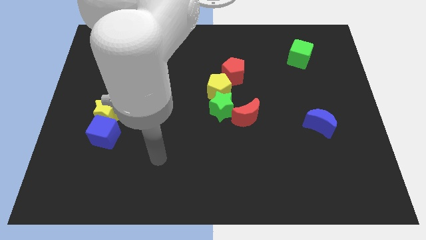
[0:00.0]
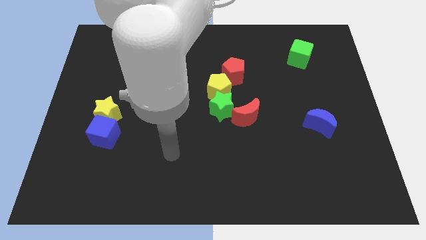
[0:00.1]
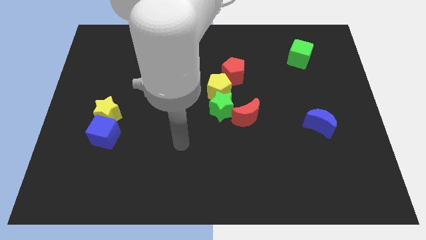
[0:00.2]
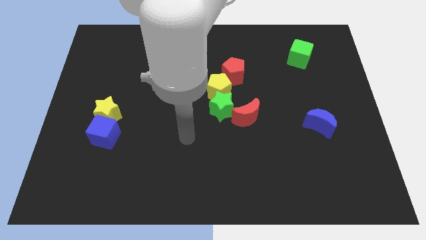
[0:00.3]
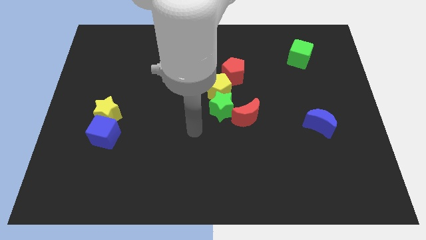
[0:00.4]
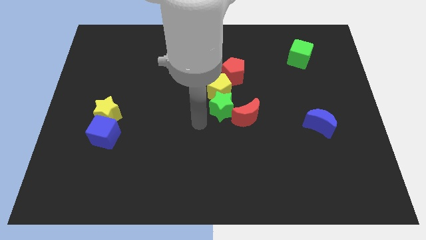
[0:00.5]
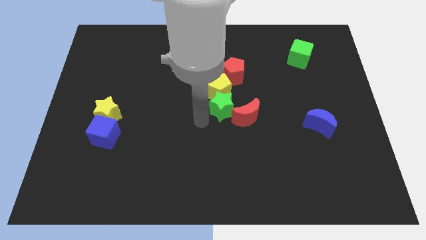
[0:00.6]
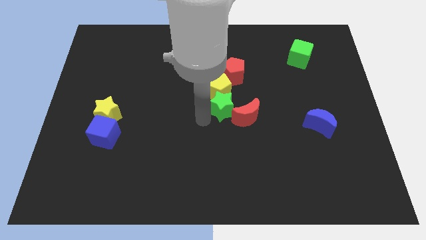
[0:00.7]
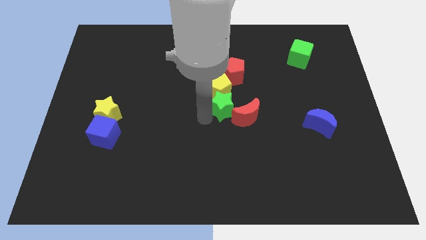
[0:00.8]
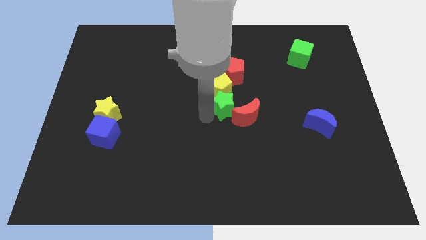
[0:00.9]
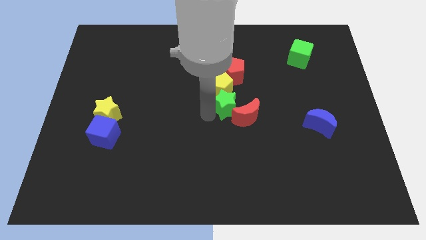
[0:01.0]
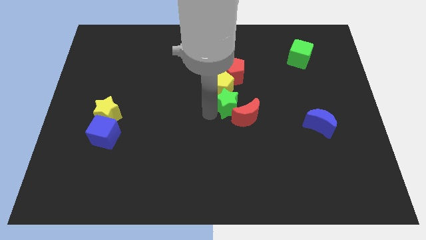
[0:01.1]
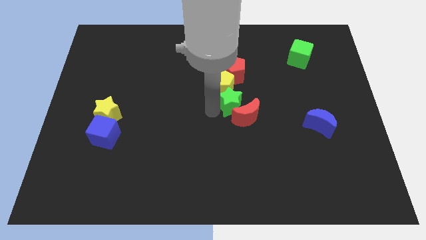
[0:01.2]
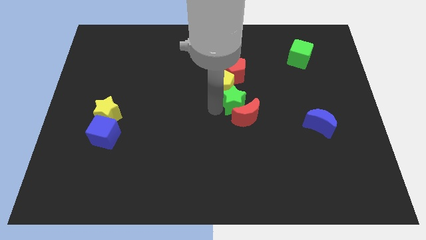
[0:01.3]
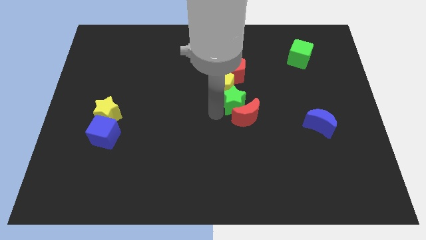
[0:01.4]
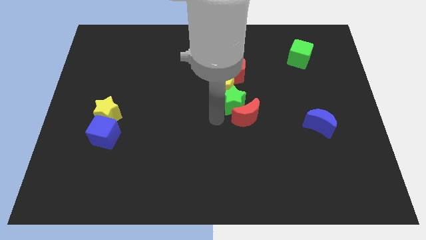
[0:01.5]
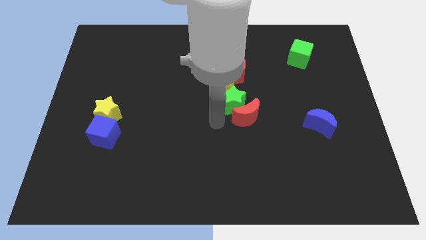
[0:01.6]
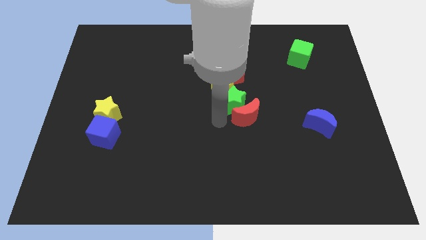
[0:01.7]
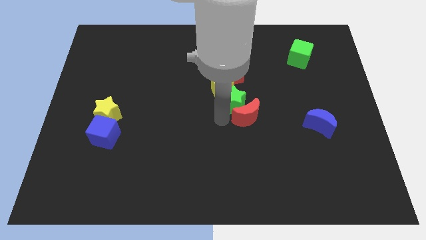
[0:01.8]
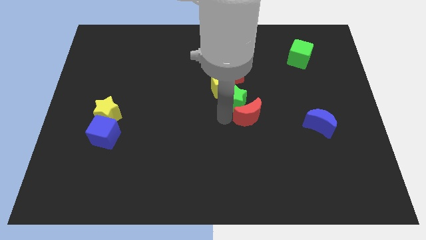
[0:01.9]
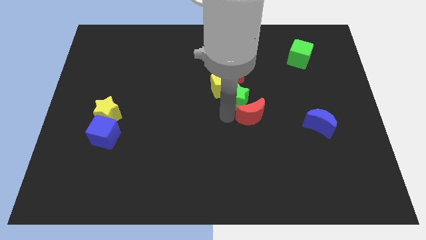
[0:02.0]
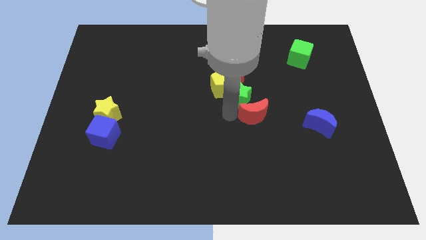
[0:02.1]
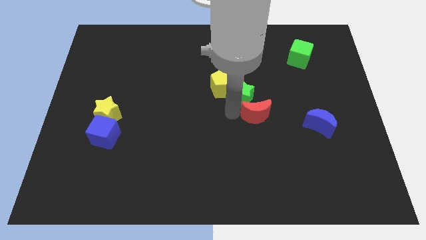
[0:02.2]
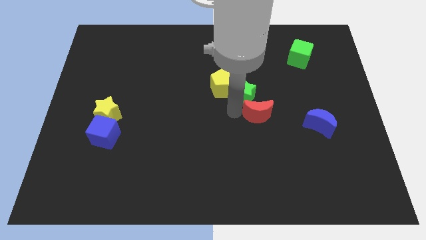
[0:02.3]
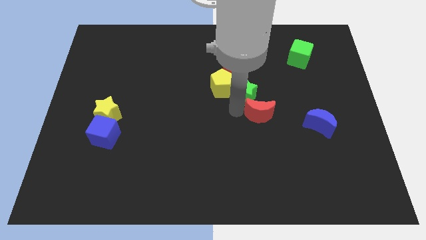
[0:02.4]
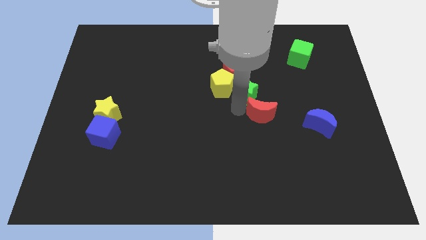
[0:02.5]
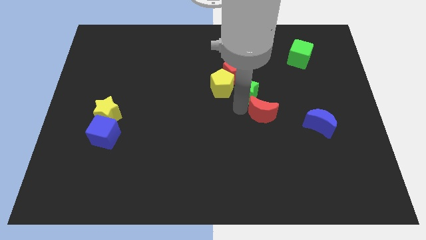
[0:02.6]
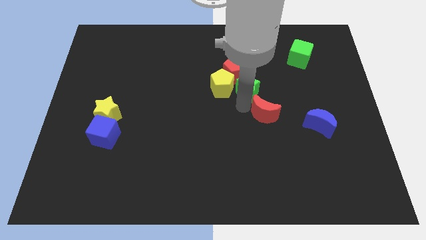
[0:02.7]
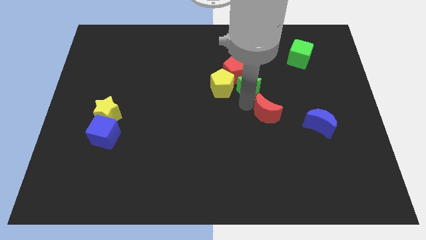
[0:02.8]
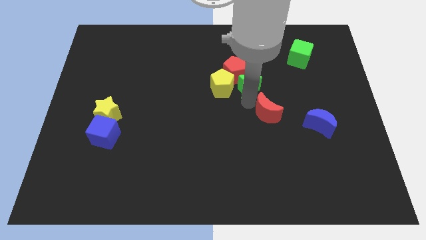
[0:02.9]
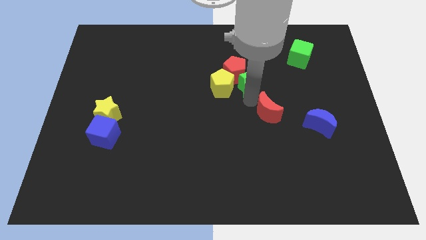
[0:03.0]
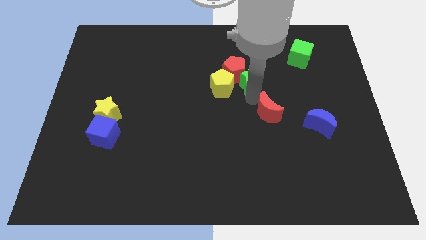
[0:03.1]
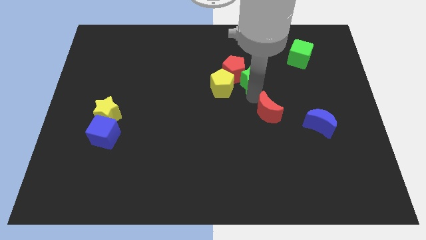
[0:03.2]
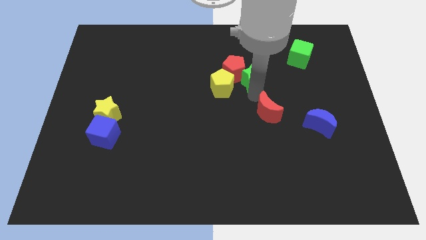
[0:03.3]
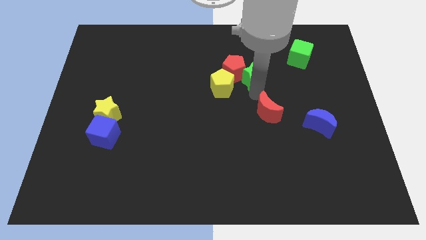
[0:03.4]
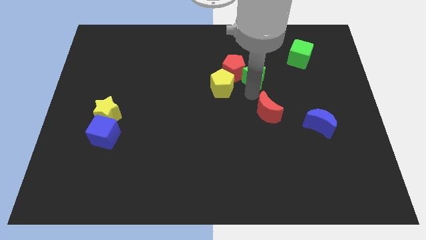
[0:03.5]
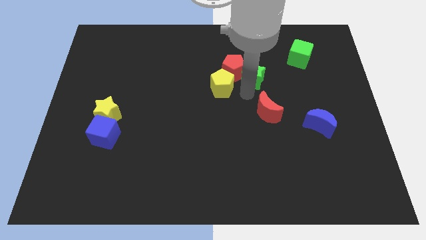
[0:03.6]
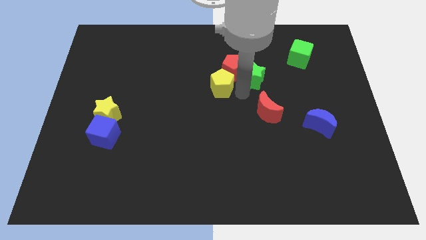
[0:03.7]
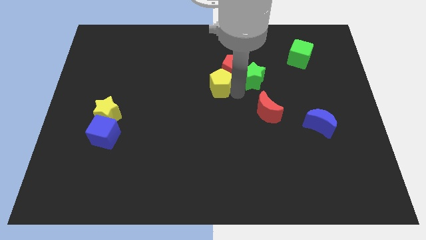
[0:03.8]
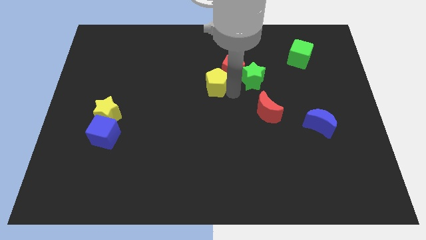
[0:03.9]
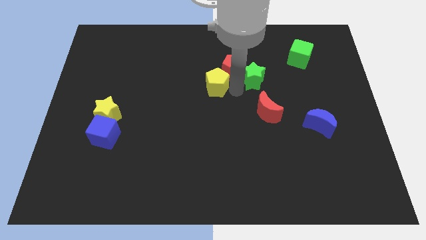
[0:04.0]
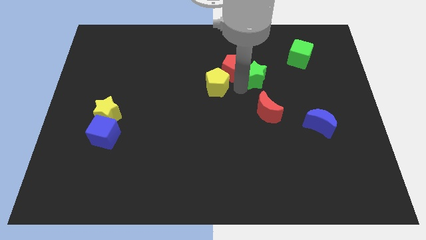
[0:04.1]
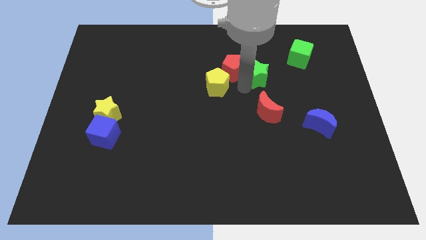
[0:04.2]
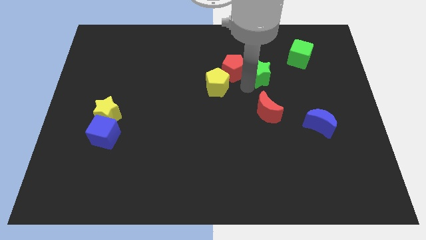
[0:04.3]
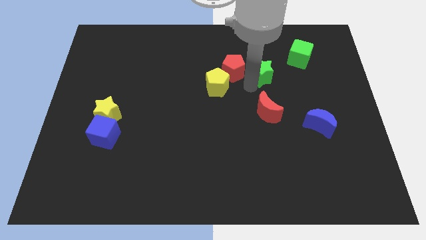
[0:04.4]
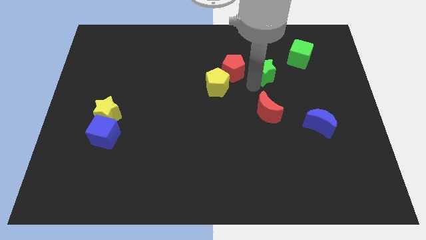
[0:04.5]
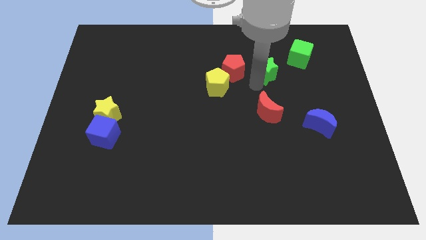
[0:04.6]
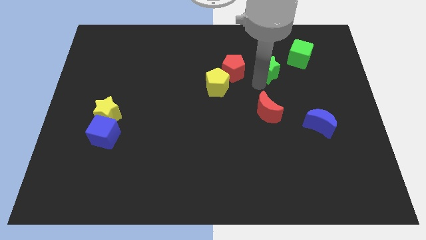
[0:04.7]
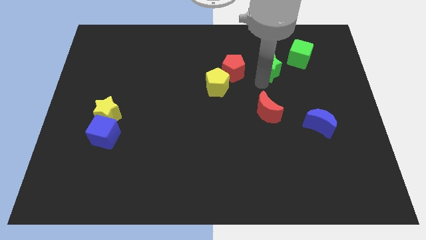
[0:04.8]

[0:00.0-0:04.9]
push the green star just left of the green cube

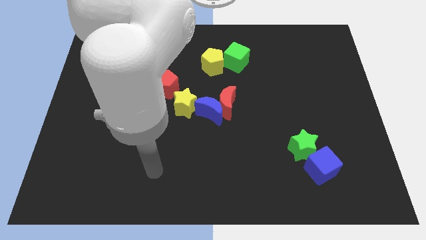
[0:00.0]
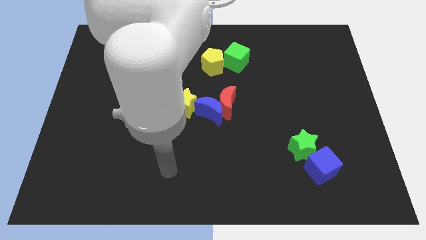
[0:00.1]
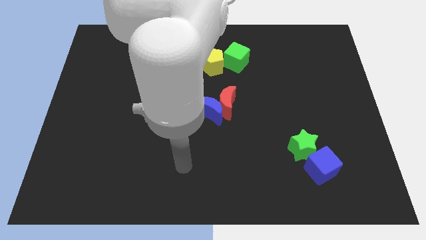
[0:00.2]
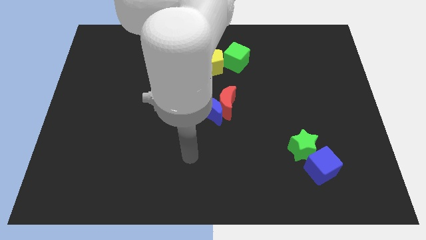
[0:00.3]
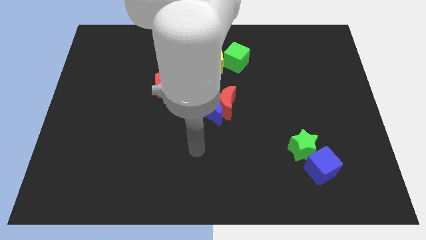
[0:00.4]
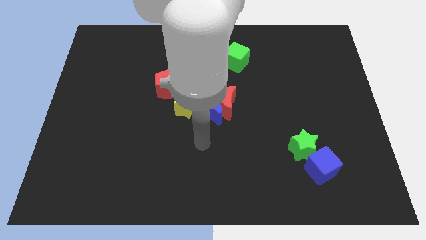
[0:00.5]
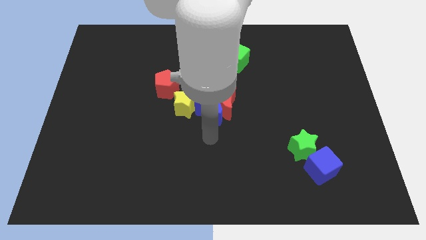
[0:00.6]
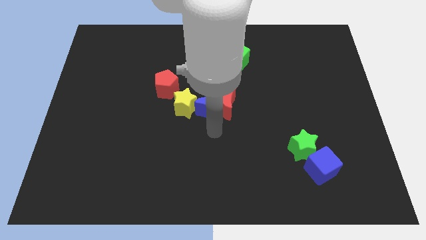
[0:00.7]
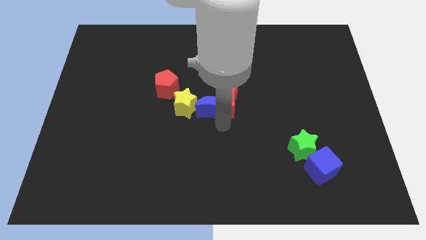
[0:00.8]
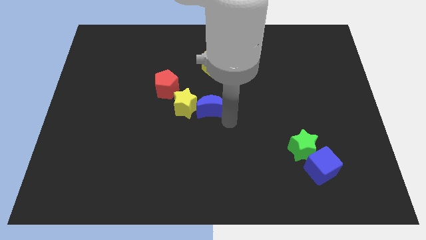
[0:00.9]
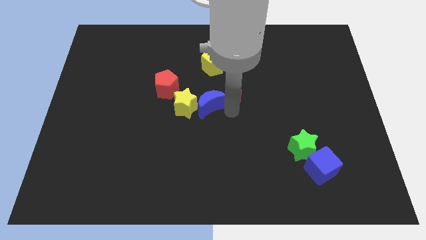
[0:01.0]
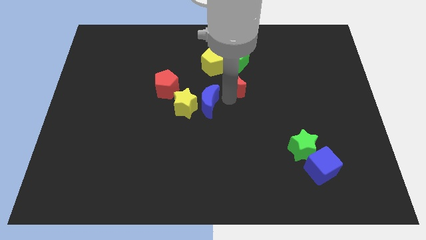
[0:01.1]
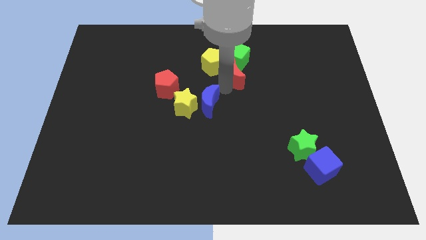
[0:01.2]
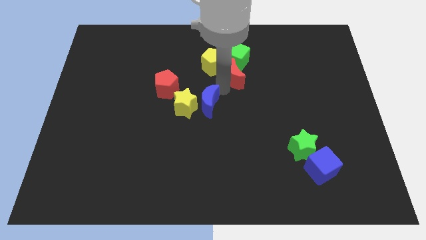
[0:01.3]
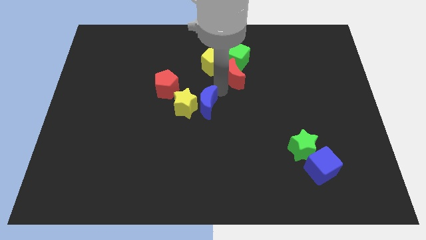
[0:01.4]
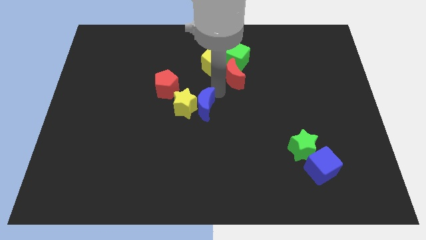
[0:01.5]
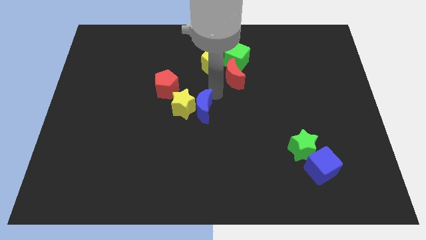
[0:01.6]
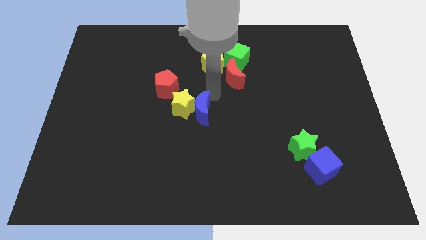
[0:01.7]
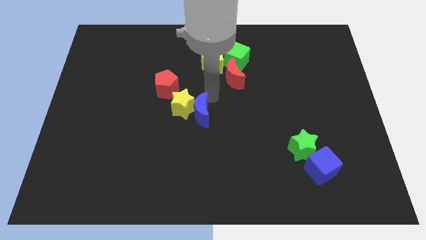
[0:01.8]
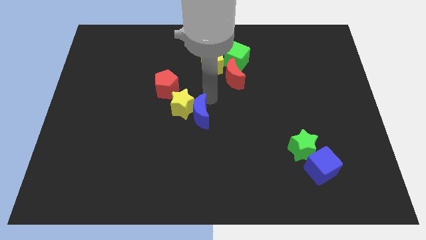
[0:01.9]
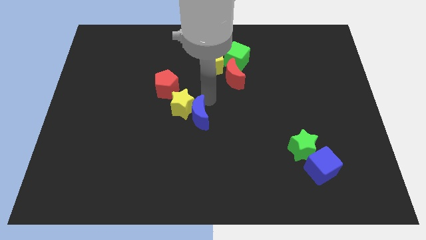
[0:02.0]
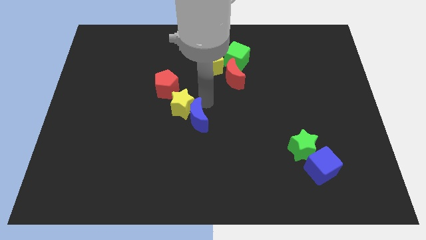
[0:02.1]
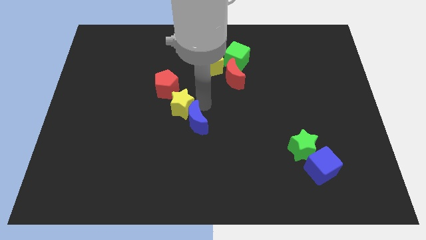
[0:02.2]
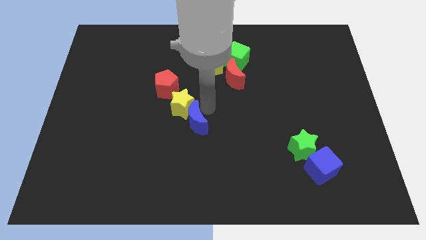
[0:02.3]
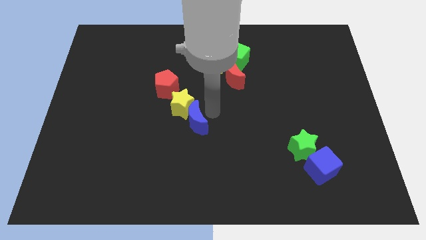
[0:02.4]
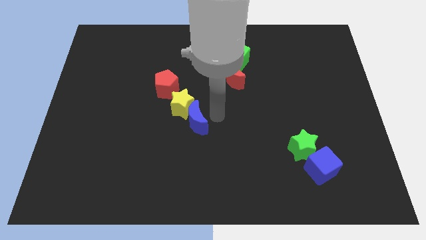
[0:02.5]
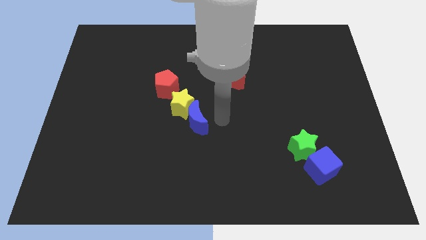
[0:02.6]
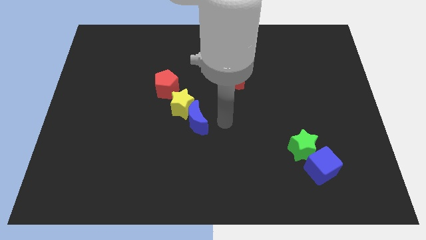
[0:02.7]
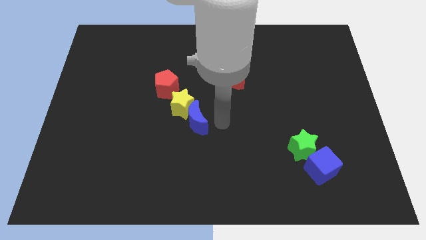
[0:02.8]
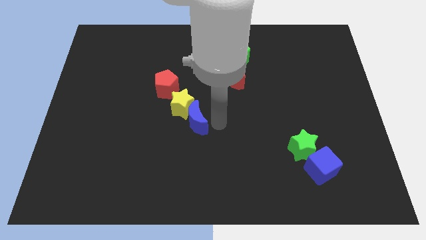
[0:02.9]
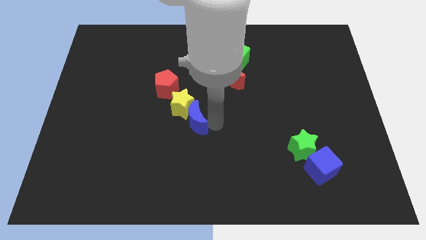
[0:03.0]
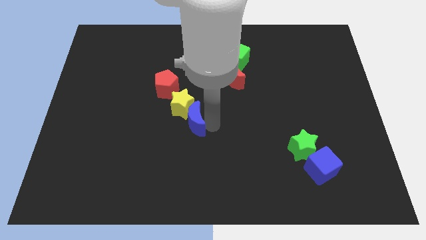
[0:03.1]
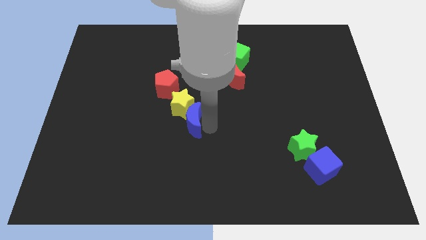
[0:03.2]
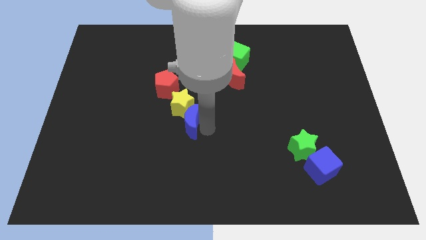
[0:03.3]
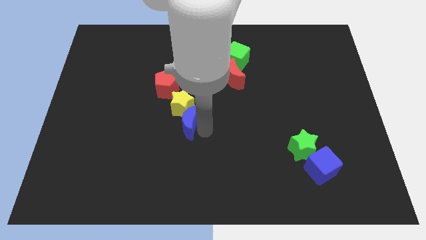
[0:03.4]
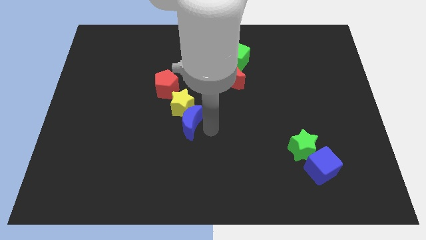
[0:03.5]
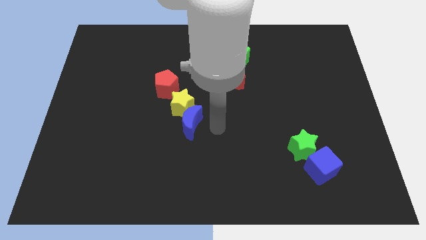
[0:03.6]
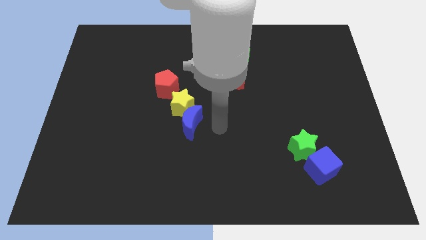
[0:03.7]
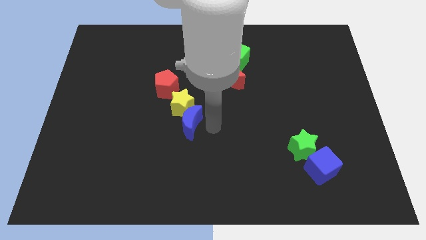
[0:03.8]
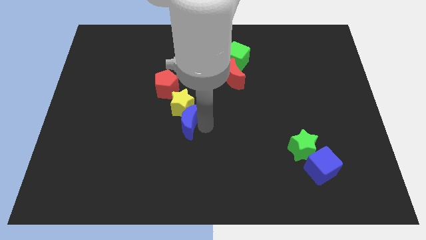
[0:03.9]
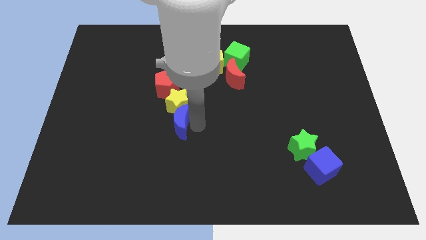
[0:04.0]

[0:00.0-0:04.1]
put the blue moon to the bottom of the red pentagon
